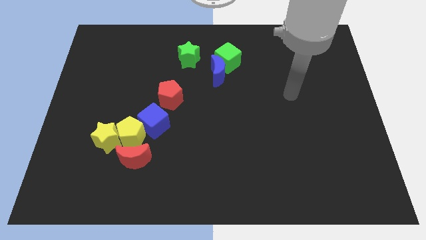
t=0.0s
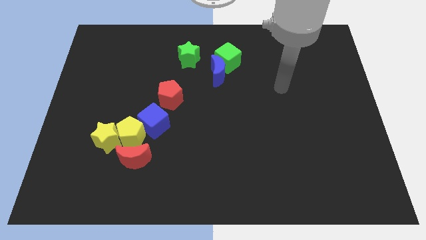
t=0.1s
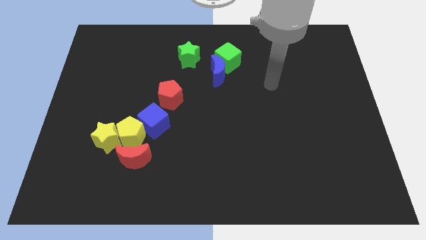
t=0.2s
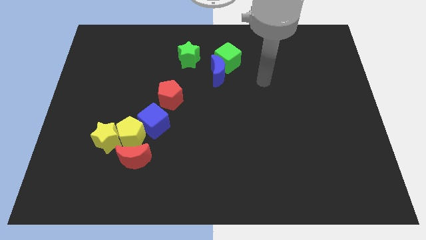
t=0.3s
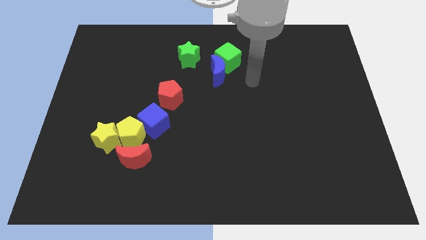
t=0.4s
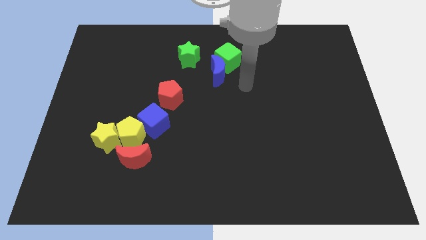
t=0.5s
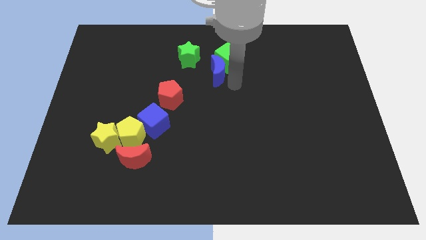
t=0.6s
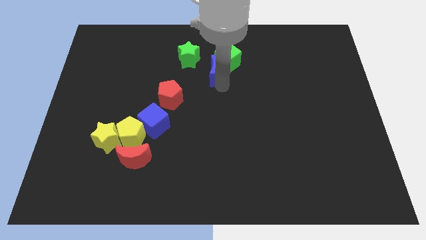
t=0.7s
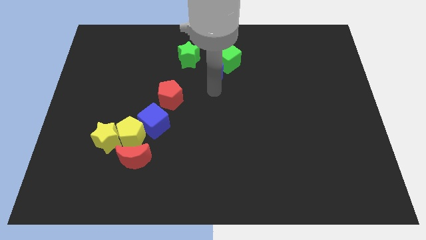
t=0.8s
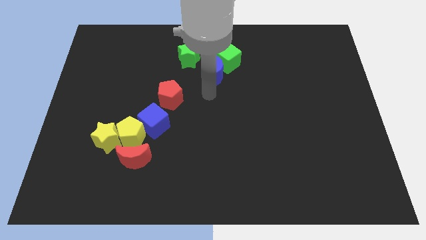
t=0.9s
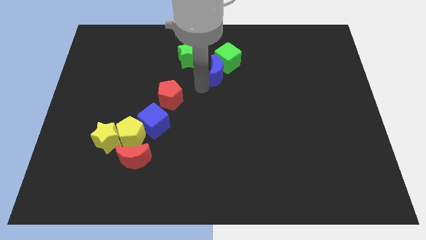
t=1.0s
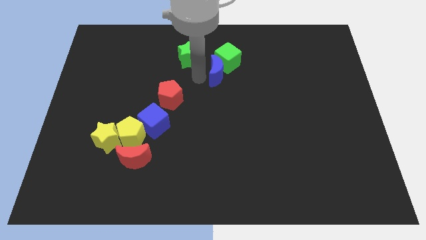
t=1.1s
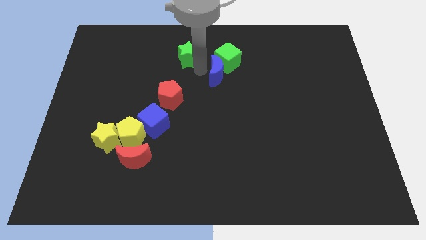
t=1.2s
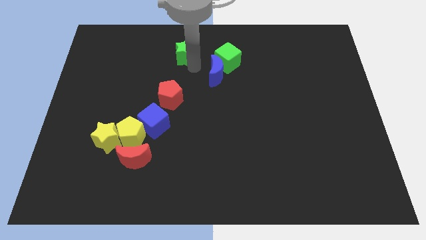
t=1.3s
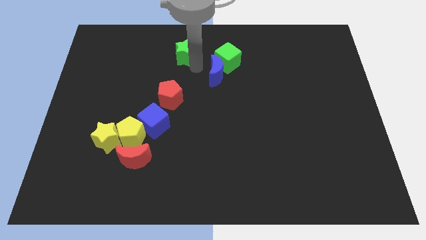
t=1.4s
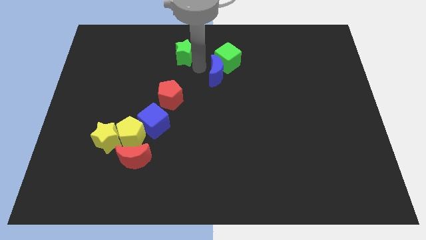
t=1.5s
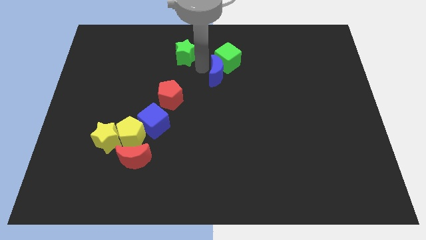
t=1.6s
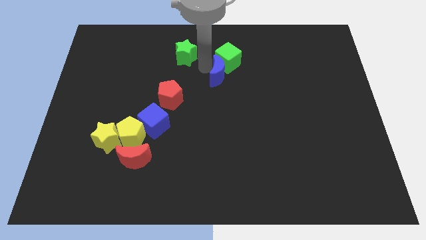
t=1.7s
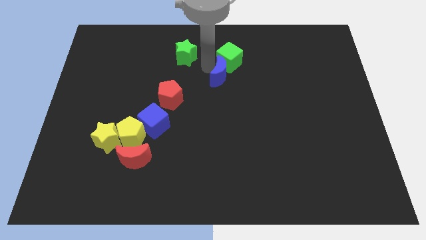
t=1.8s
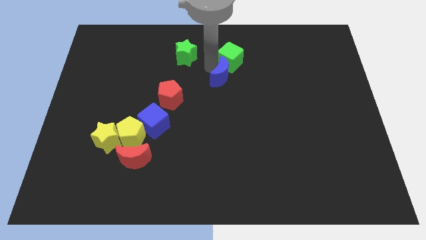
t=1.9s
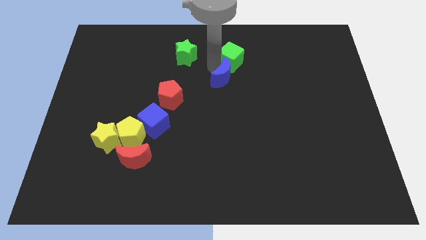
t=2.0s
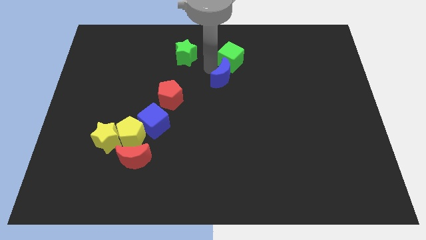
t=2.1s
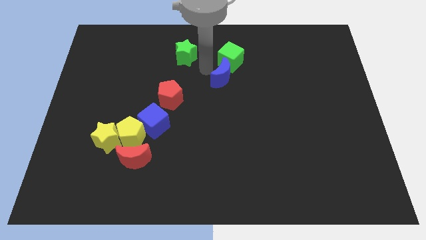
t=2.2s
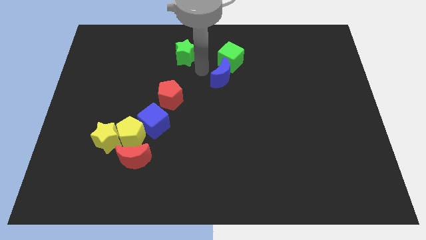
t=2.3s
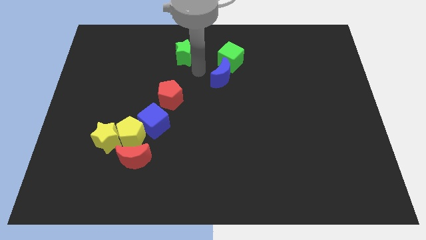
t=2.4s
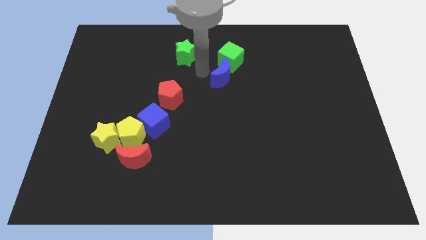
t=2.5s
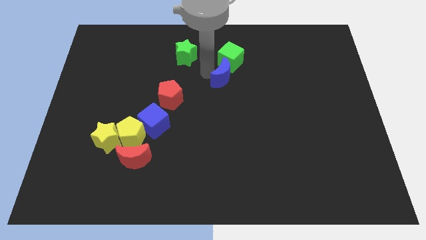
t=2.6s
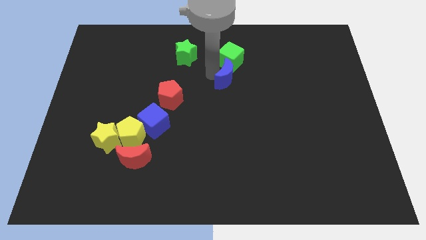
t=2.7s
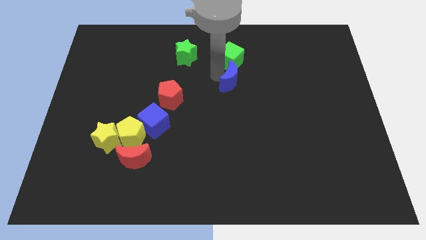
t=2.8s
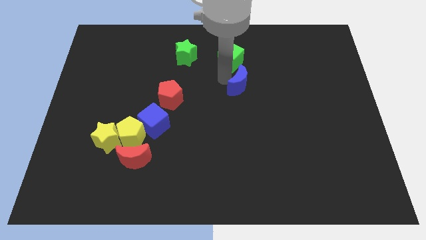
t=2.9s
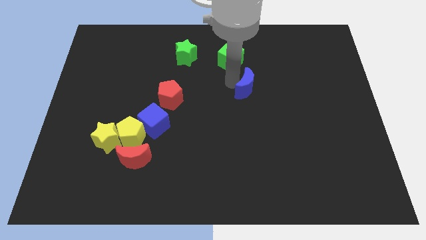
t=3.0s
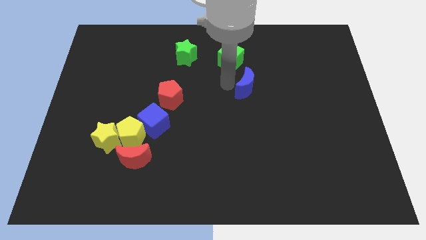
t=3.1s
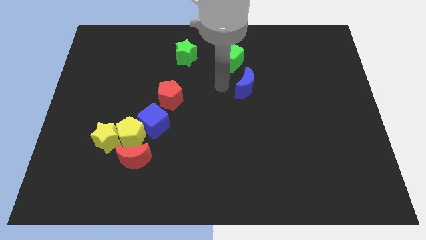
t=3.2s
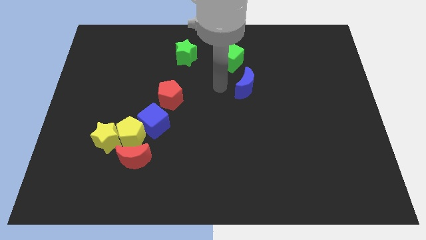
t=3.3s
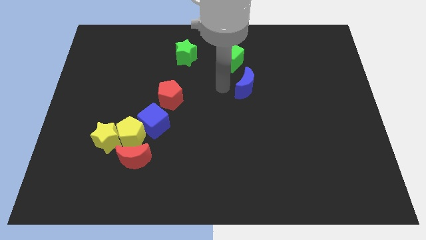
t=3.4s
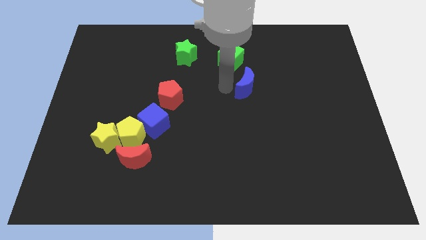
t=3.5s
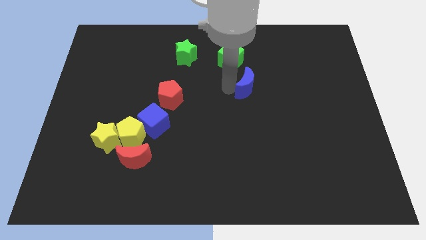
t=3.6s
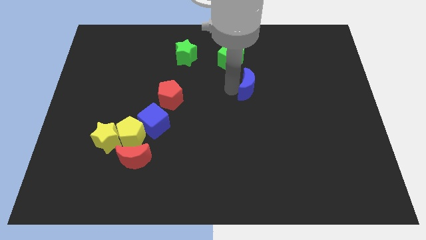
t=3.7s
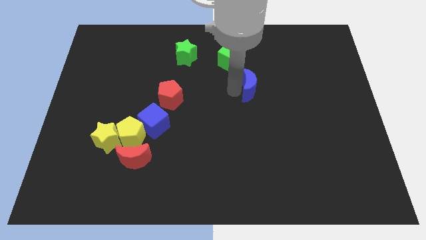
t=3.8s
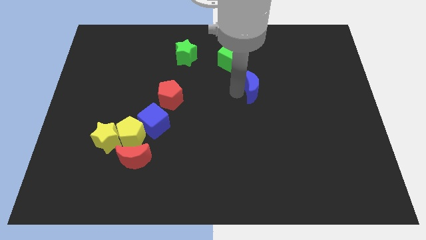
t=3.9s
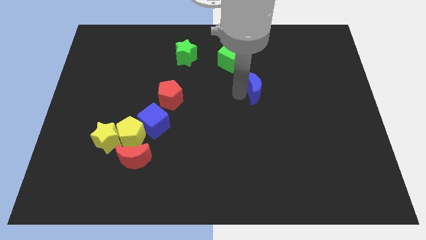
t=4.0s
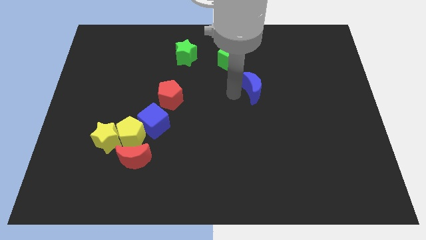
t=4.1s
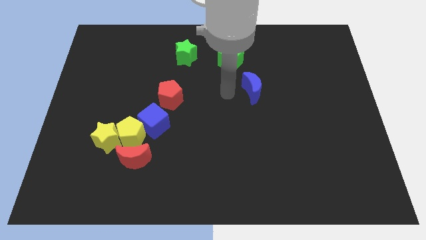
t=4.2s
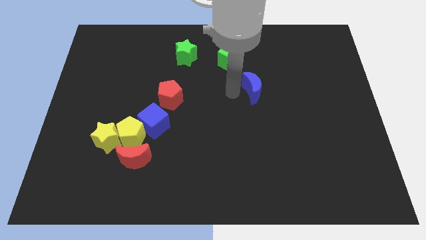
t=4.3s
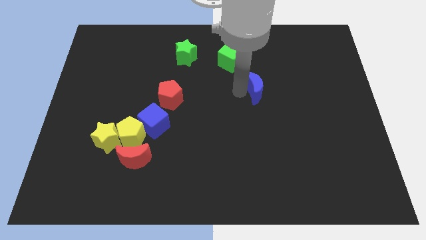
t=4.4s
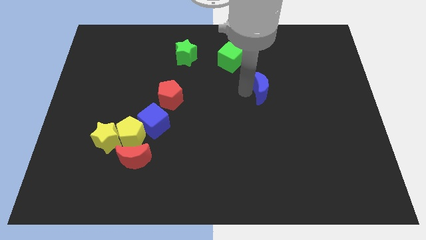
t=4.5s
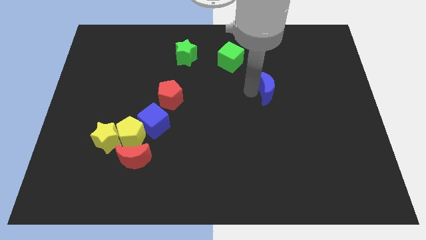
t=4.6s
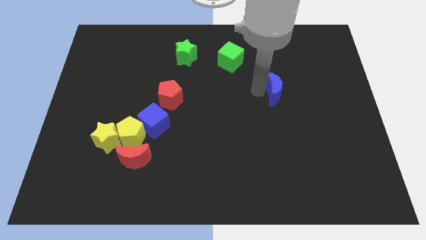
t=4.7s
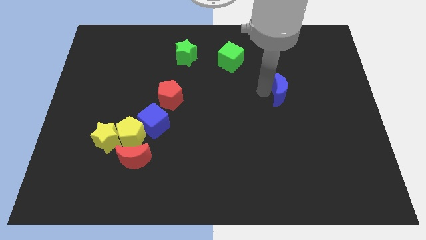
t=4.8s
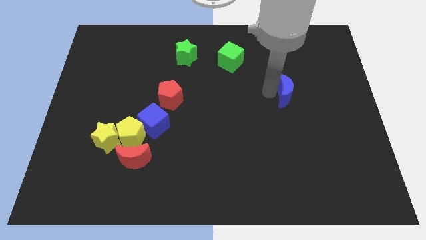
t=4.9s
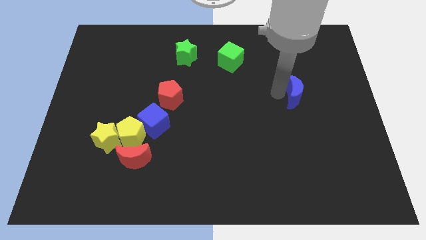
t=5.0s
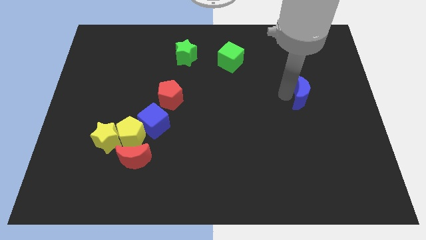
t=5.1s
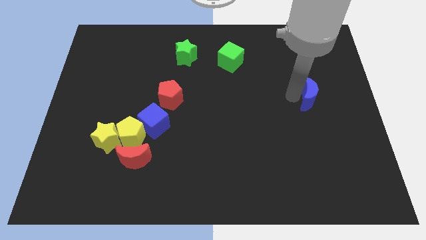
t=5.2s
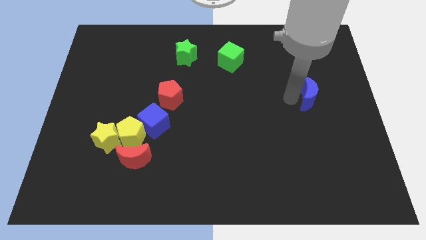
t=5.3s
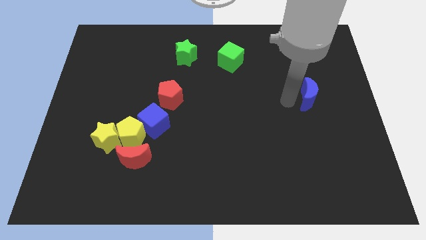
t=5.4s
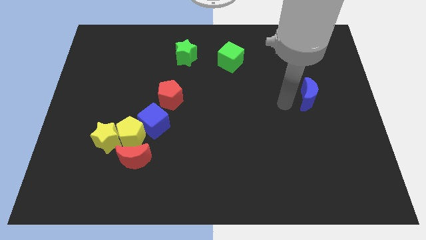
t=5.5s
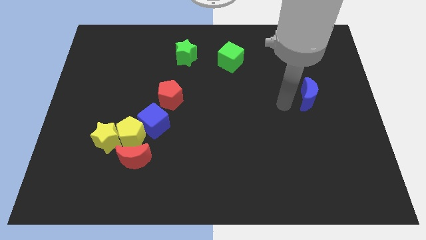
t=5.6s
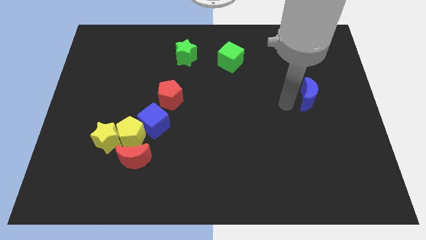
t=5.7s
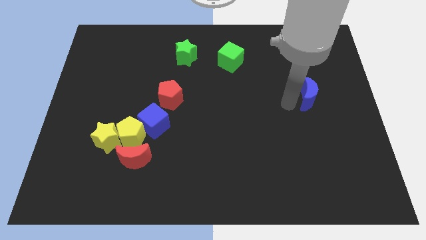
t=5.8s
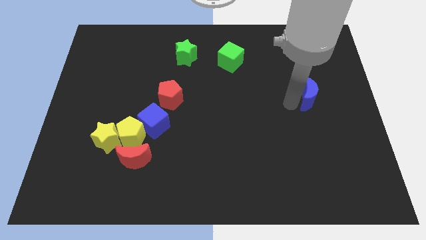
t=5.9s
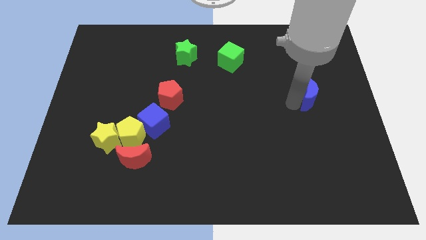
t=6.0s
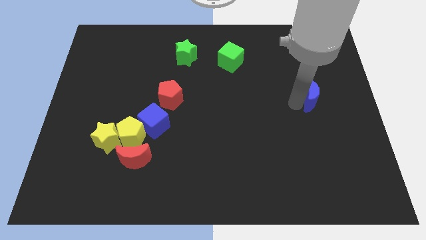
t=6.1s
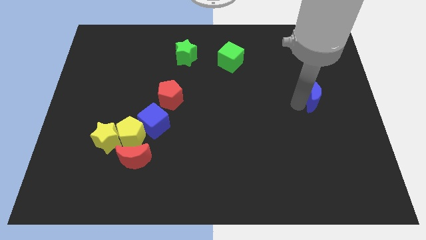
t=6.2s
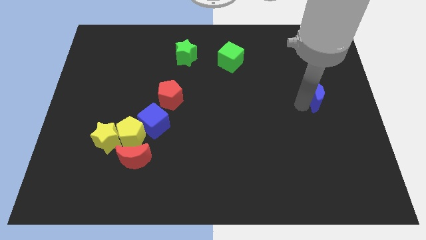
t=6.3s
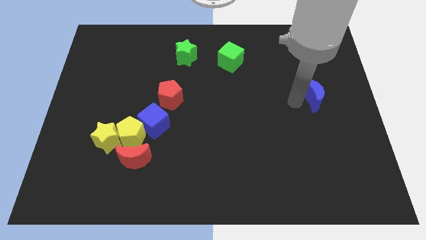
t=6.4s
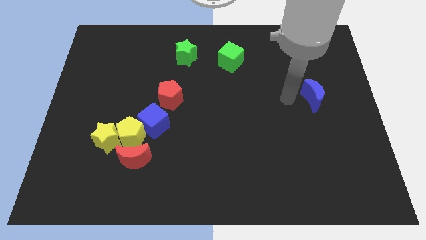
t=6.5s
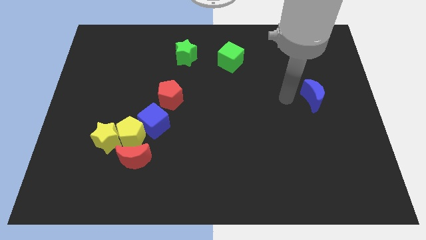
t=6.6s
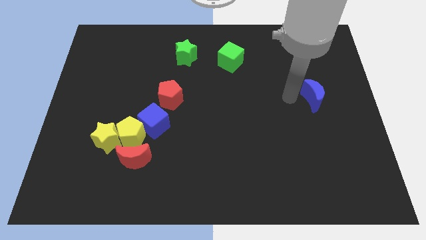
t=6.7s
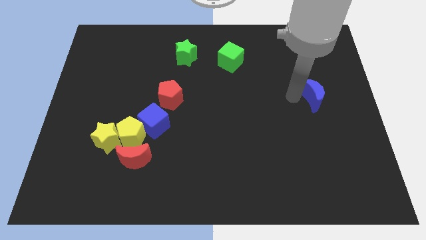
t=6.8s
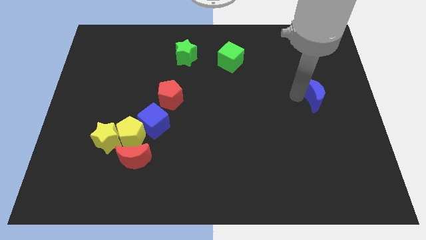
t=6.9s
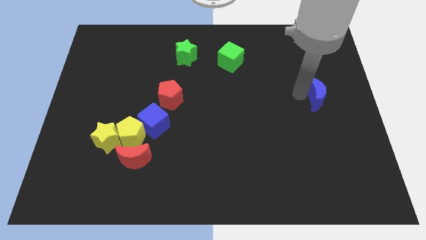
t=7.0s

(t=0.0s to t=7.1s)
put the blue moon to the center right
